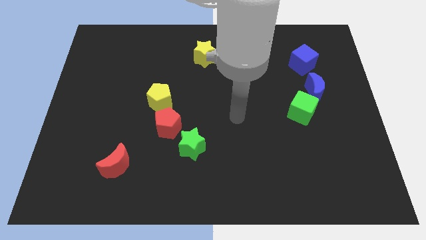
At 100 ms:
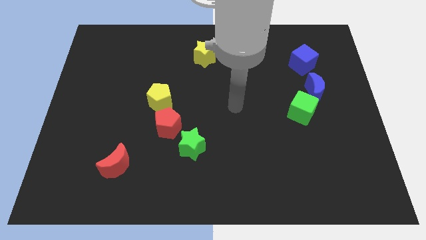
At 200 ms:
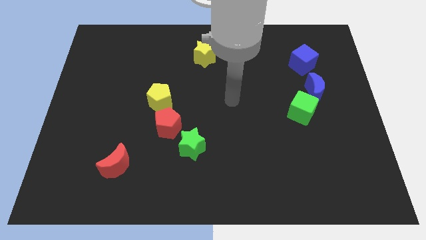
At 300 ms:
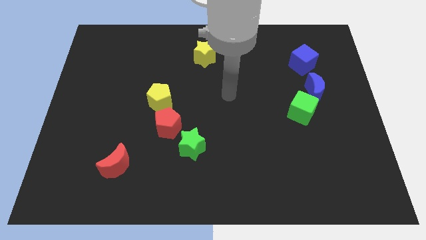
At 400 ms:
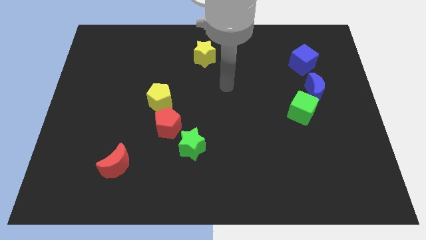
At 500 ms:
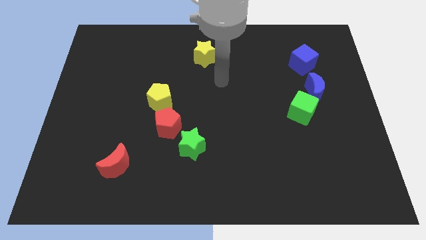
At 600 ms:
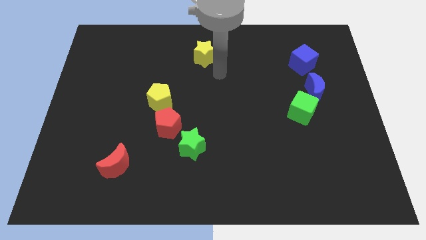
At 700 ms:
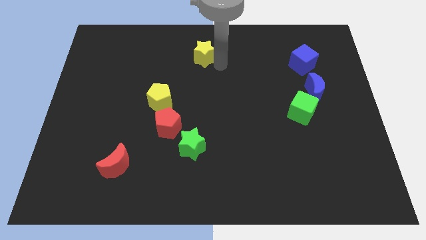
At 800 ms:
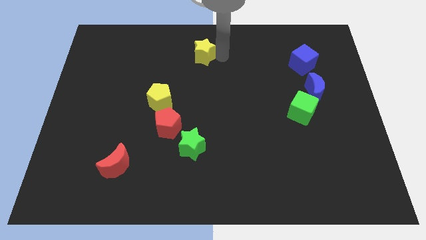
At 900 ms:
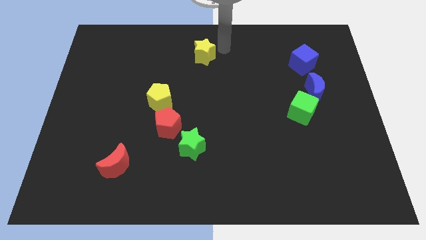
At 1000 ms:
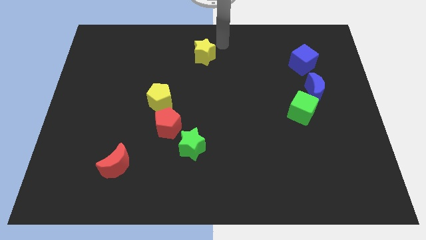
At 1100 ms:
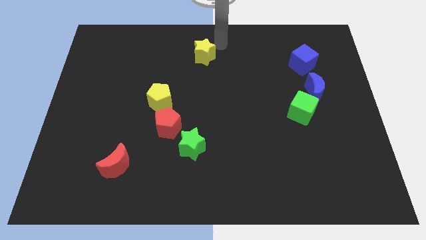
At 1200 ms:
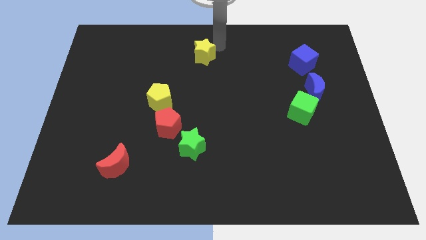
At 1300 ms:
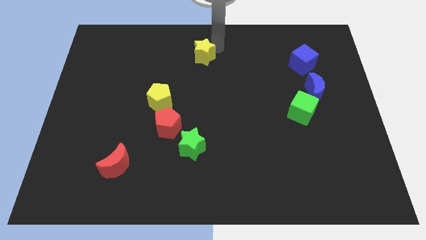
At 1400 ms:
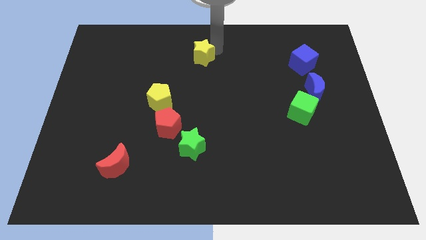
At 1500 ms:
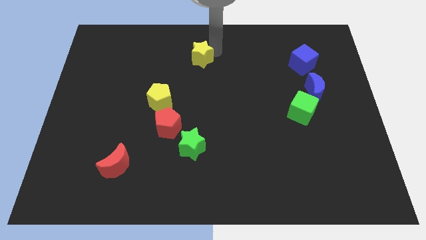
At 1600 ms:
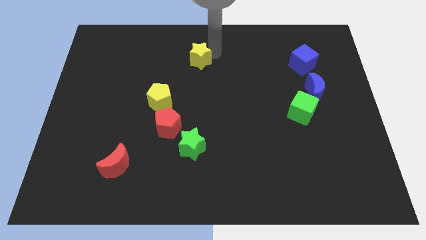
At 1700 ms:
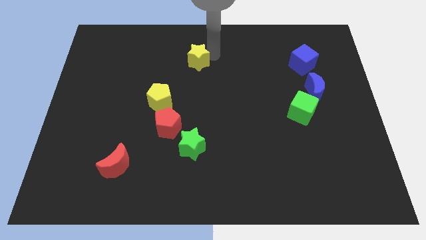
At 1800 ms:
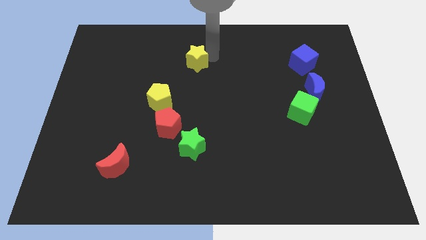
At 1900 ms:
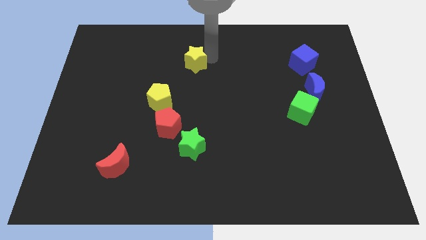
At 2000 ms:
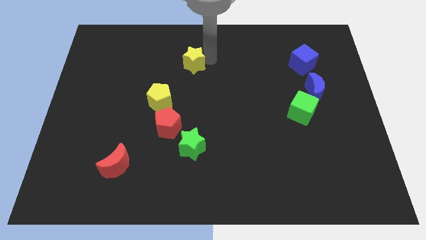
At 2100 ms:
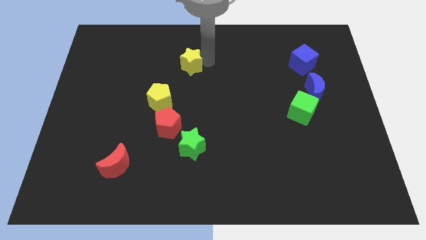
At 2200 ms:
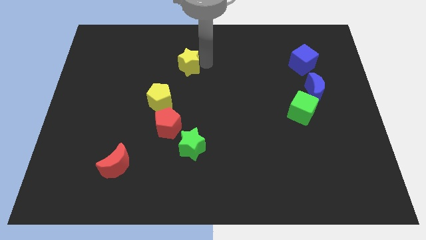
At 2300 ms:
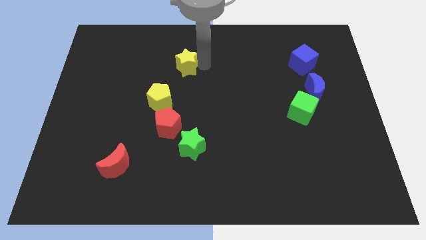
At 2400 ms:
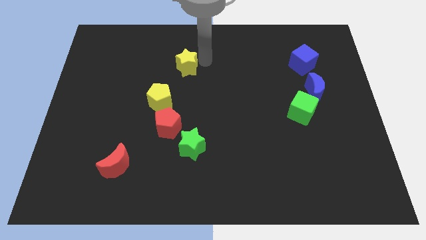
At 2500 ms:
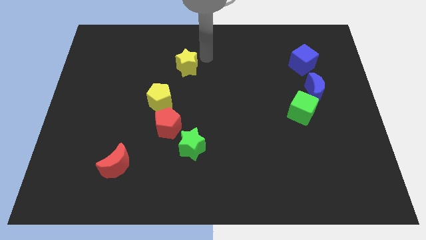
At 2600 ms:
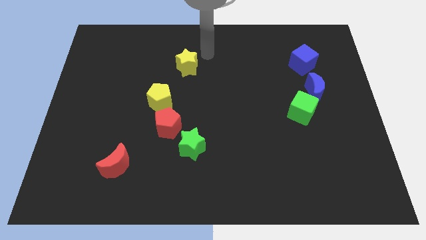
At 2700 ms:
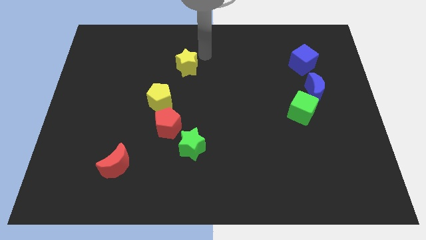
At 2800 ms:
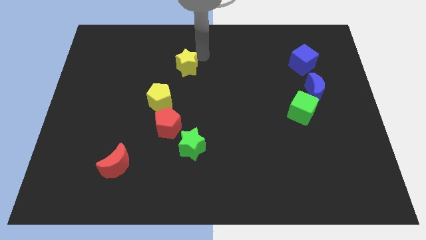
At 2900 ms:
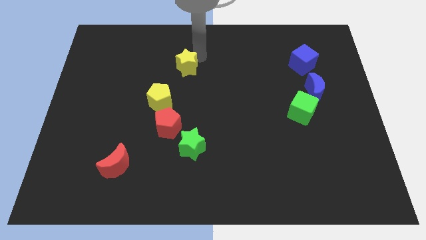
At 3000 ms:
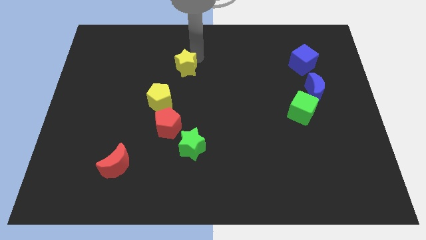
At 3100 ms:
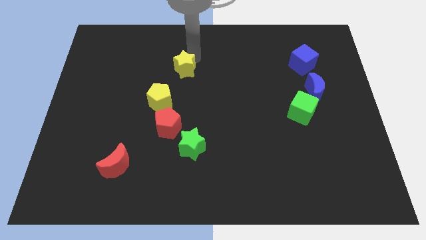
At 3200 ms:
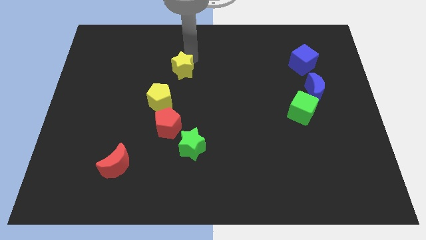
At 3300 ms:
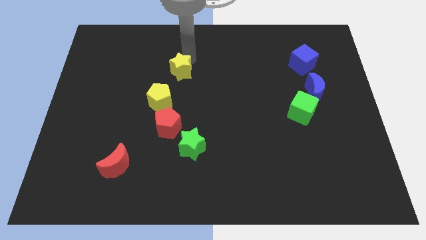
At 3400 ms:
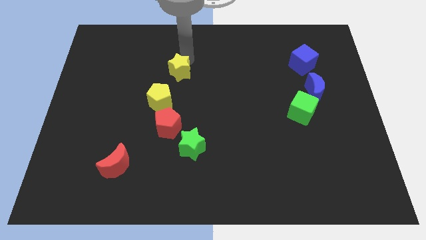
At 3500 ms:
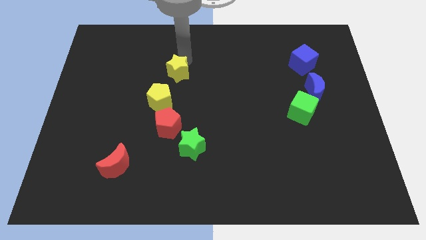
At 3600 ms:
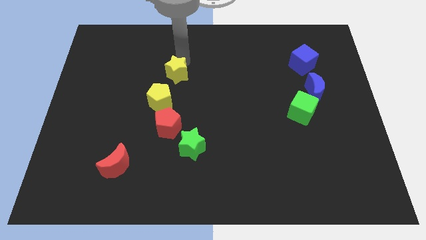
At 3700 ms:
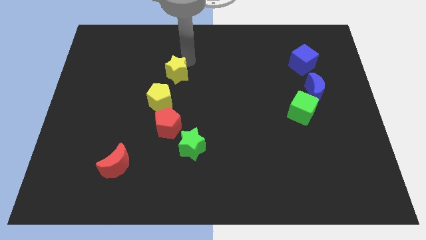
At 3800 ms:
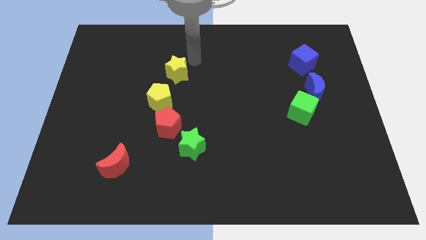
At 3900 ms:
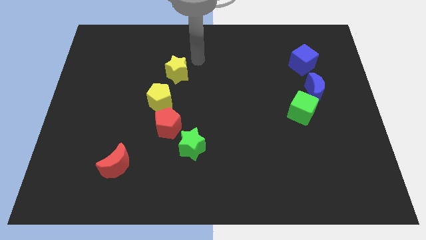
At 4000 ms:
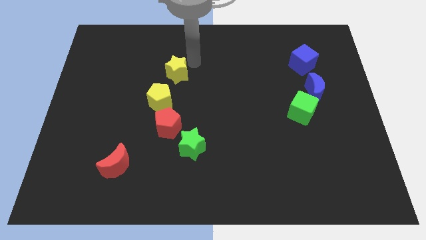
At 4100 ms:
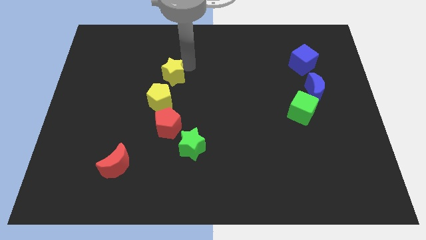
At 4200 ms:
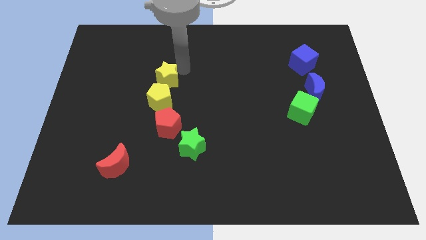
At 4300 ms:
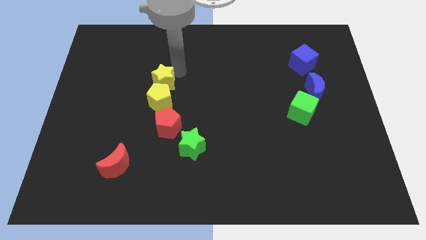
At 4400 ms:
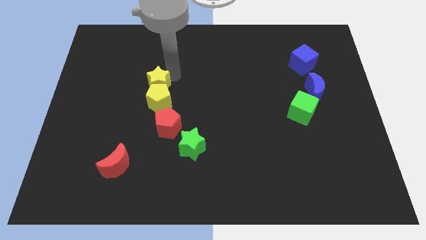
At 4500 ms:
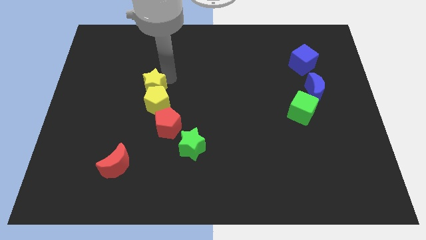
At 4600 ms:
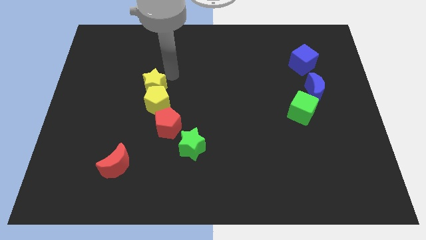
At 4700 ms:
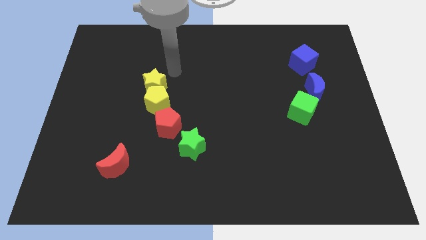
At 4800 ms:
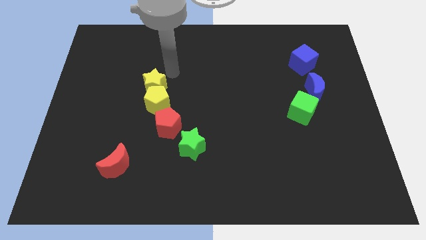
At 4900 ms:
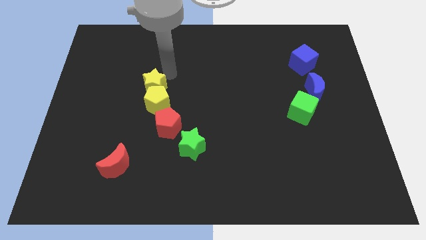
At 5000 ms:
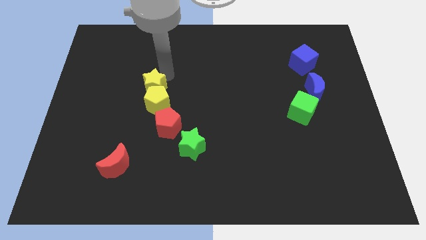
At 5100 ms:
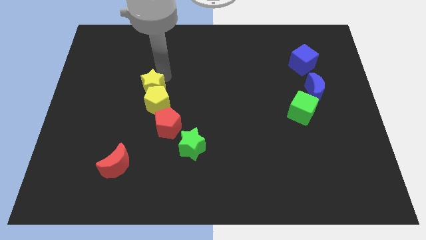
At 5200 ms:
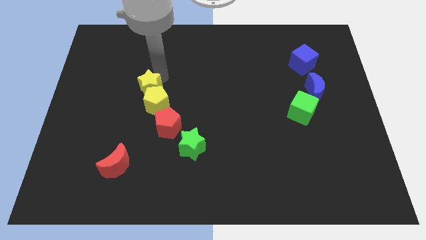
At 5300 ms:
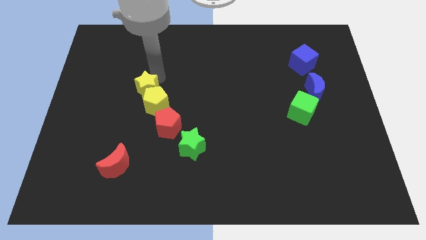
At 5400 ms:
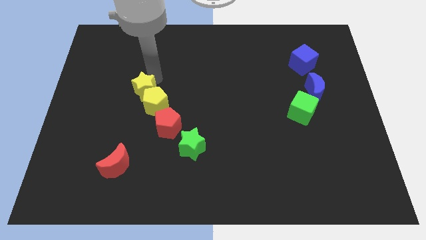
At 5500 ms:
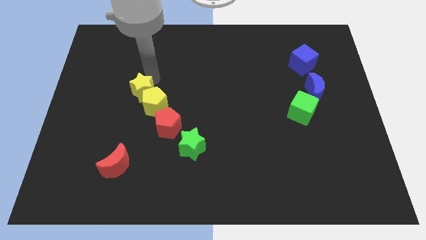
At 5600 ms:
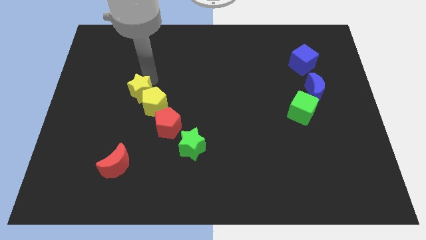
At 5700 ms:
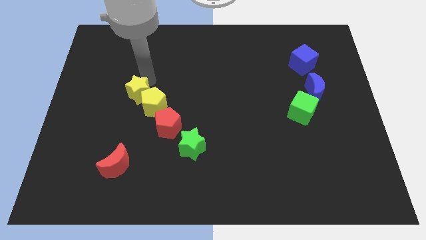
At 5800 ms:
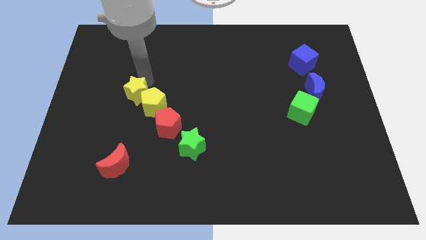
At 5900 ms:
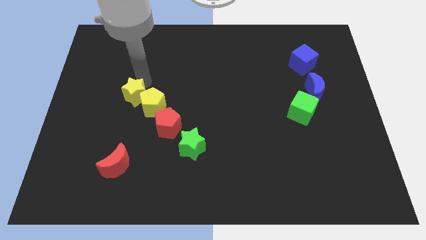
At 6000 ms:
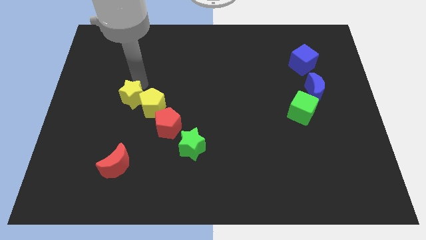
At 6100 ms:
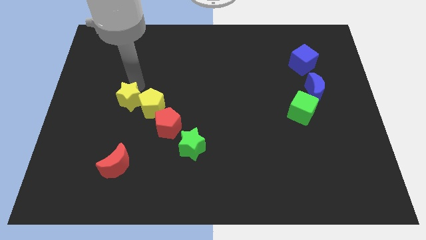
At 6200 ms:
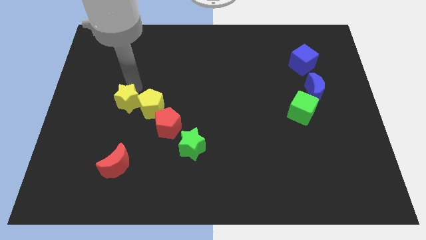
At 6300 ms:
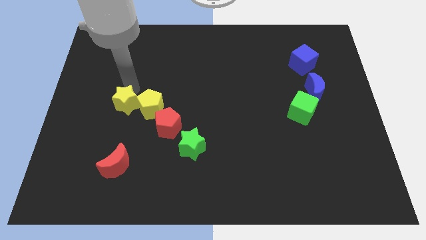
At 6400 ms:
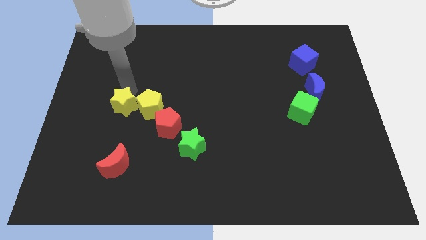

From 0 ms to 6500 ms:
push the yellow star to the top of the red moon

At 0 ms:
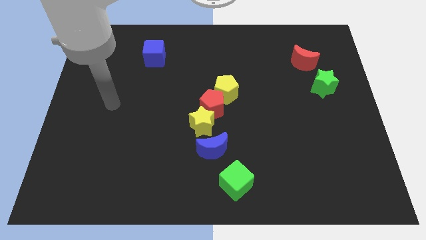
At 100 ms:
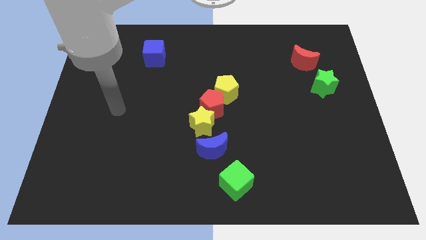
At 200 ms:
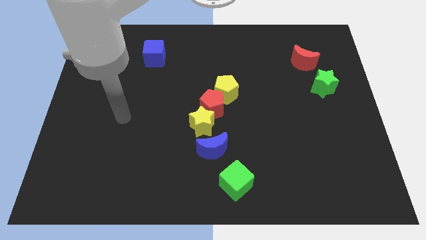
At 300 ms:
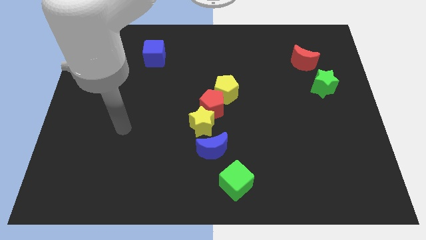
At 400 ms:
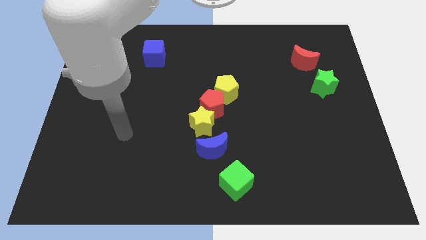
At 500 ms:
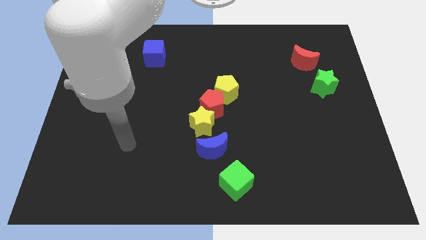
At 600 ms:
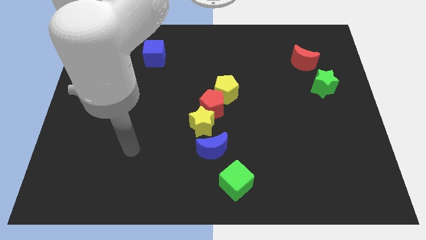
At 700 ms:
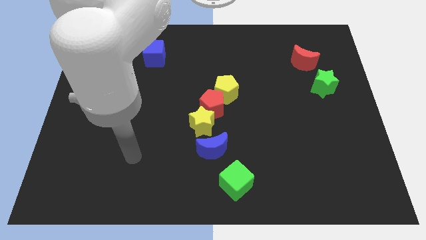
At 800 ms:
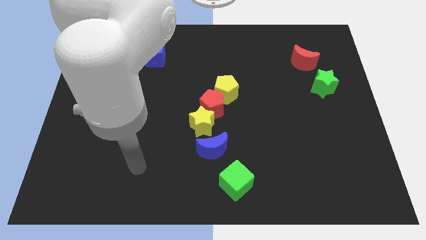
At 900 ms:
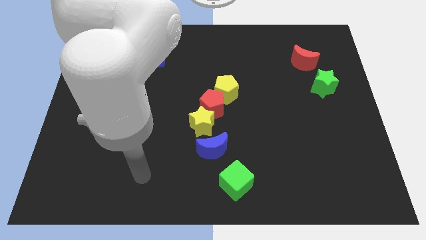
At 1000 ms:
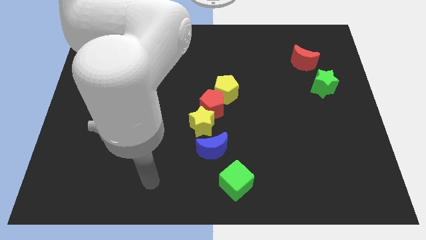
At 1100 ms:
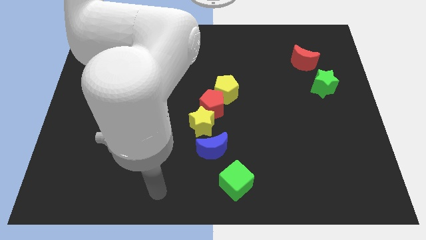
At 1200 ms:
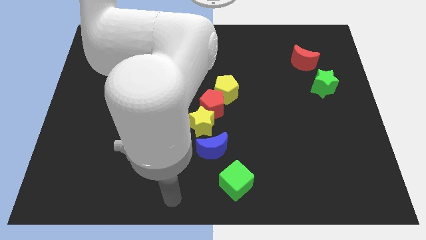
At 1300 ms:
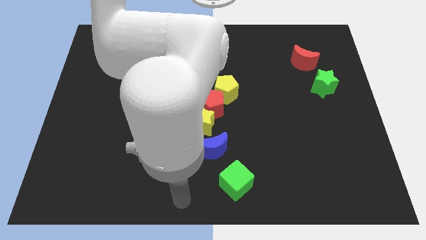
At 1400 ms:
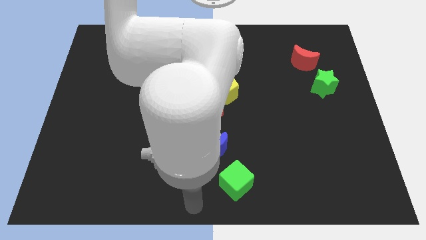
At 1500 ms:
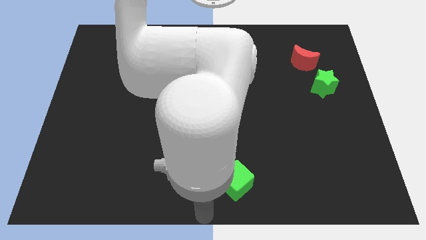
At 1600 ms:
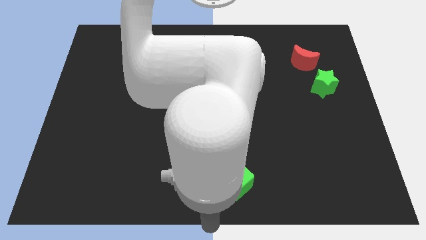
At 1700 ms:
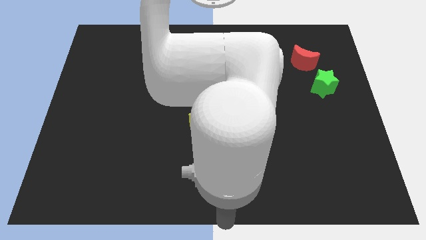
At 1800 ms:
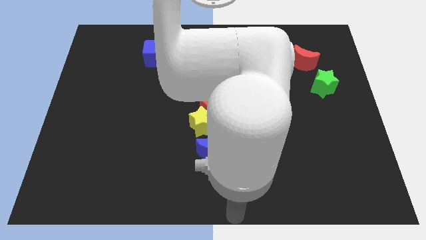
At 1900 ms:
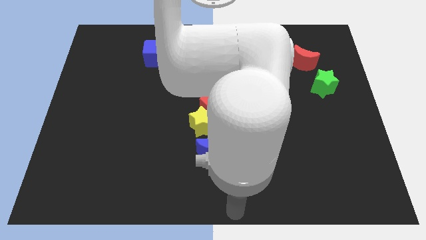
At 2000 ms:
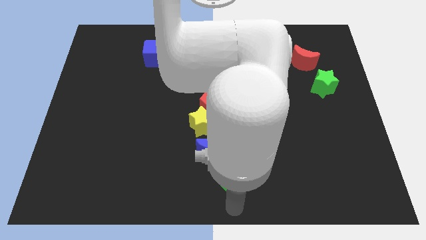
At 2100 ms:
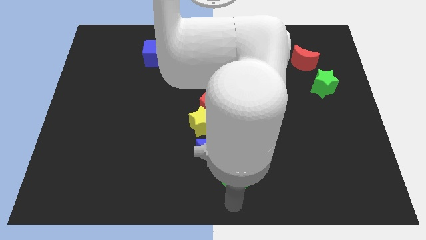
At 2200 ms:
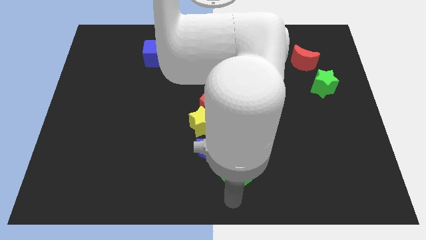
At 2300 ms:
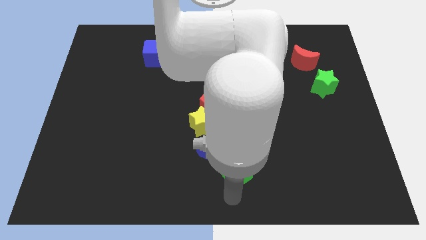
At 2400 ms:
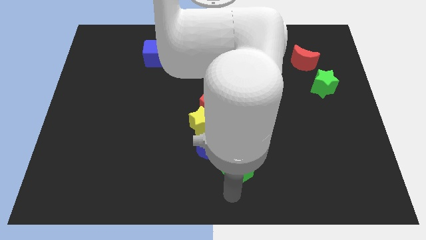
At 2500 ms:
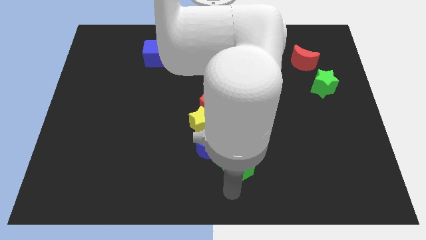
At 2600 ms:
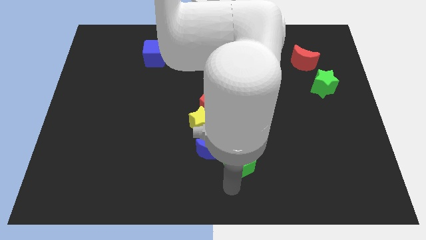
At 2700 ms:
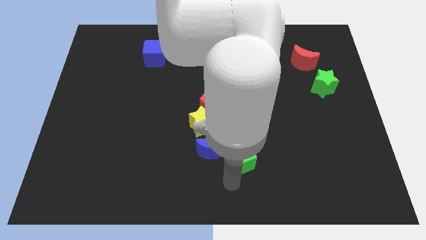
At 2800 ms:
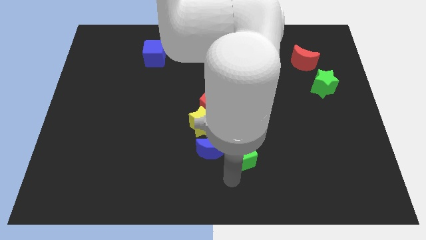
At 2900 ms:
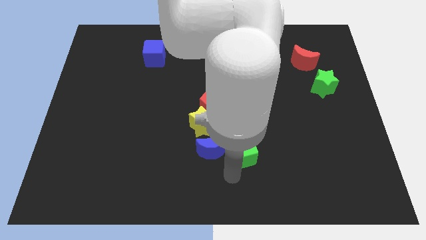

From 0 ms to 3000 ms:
slide the green cube to the top right of the blue moon
